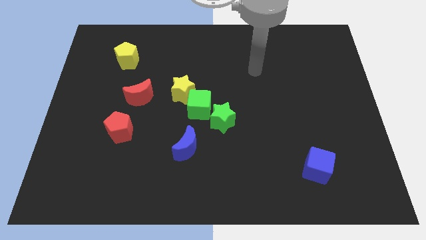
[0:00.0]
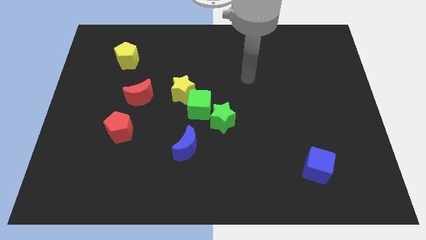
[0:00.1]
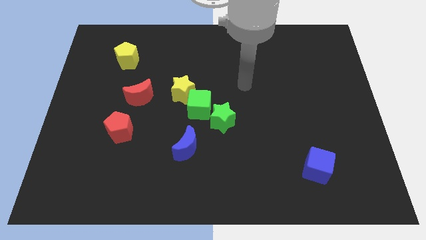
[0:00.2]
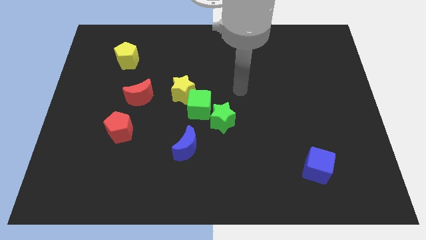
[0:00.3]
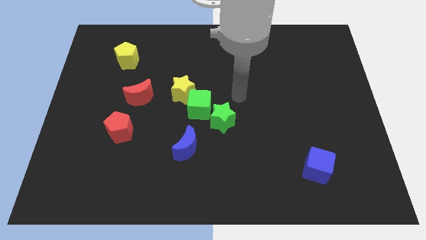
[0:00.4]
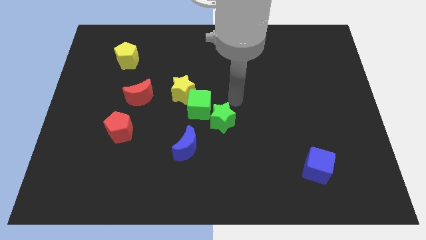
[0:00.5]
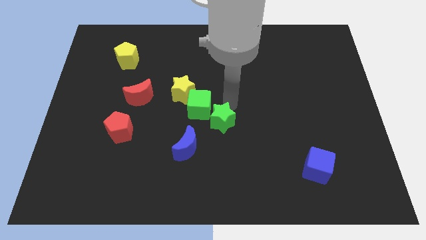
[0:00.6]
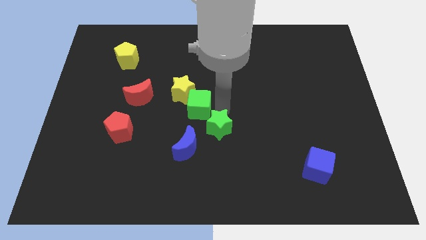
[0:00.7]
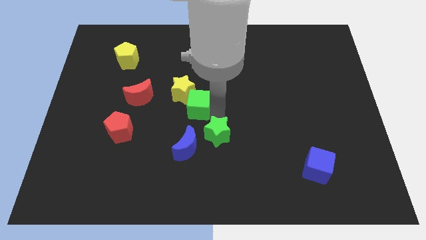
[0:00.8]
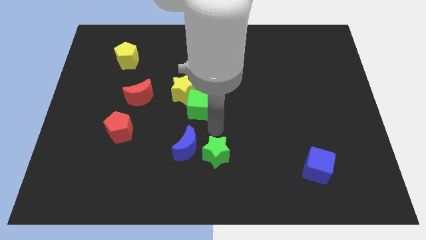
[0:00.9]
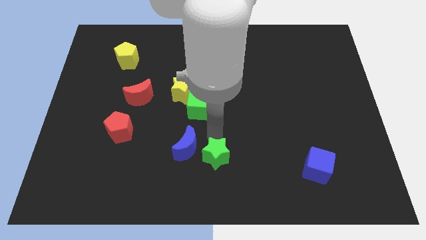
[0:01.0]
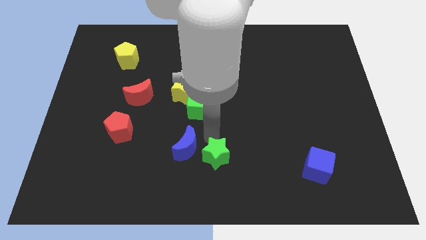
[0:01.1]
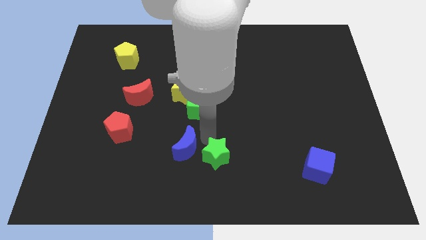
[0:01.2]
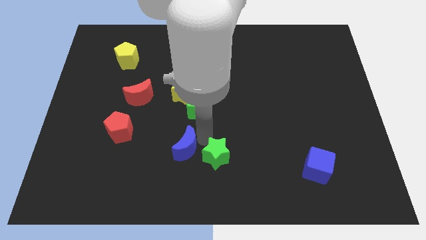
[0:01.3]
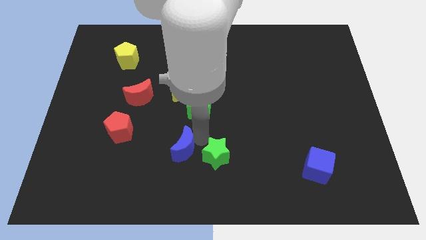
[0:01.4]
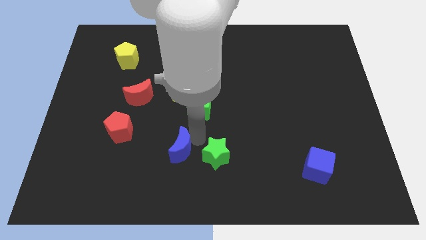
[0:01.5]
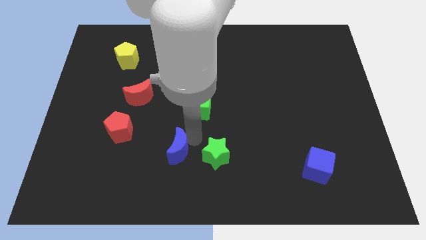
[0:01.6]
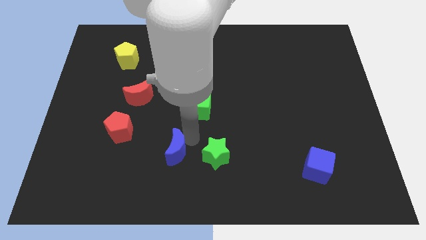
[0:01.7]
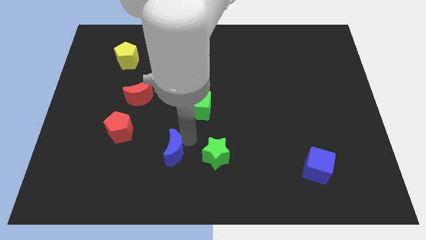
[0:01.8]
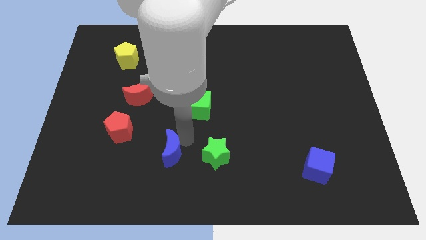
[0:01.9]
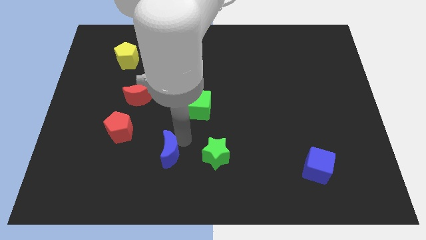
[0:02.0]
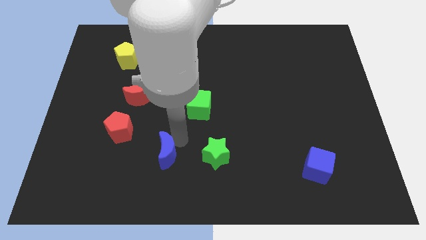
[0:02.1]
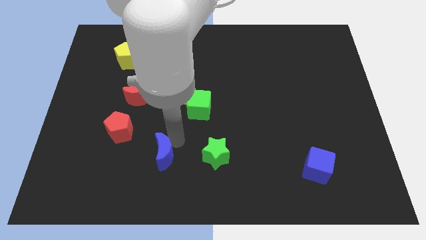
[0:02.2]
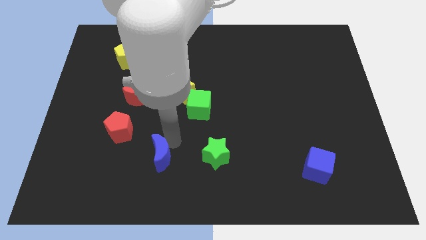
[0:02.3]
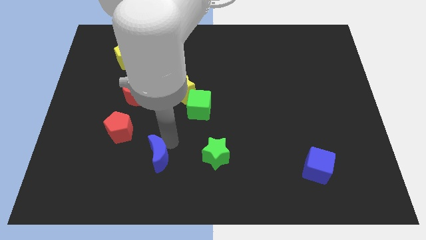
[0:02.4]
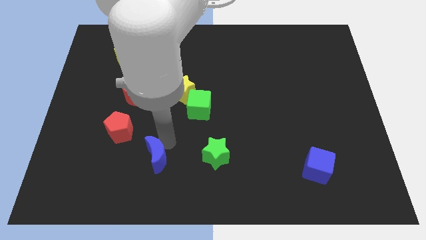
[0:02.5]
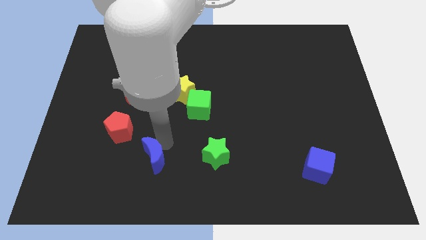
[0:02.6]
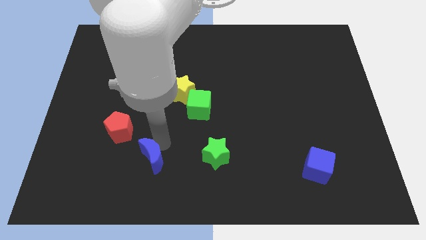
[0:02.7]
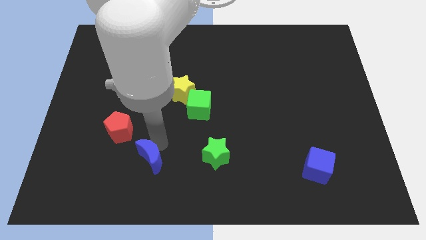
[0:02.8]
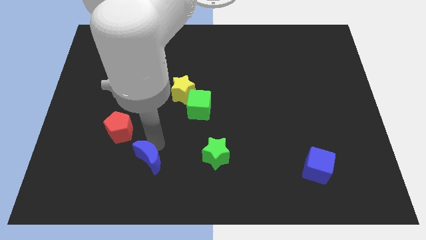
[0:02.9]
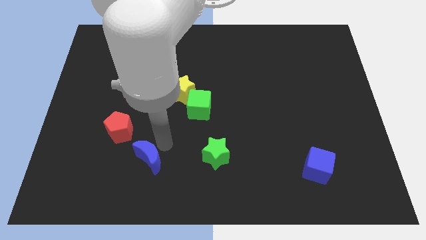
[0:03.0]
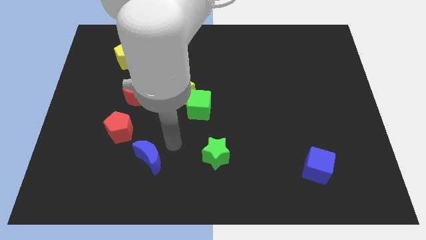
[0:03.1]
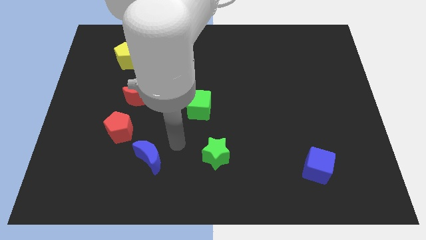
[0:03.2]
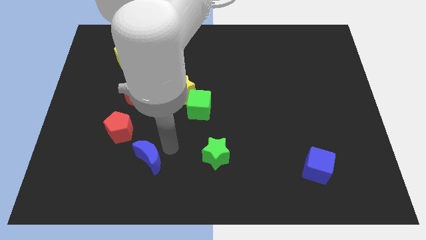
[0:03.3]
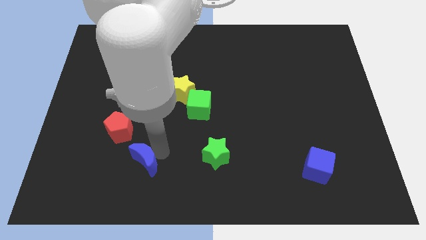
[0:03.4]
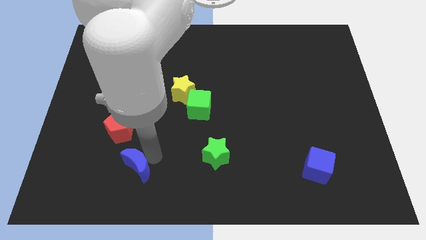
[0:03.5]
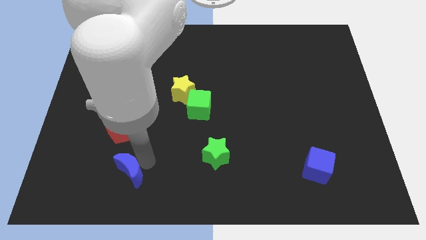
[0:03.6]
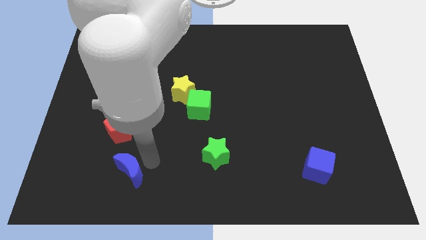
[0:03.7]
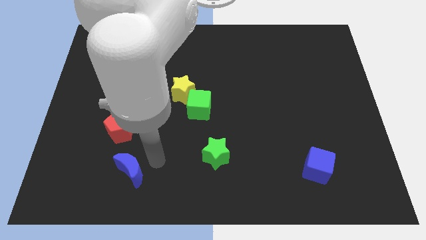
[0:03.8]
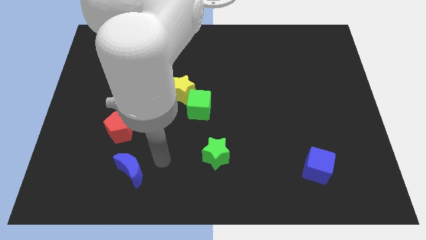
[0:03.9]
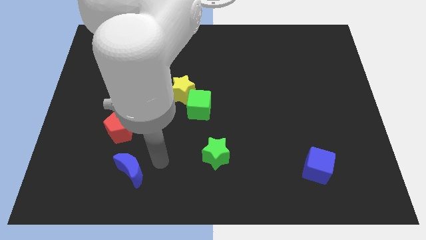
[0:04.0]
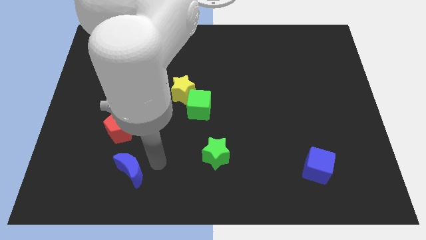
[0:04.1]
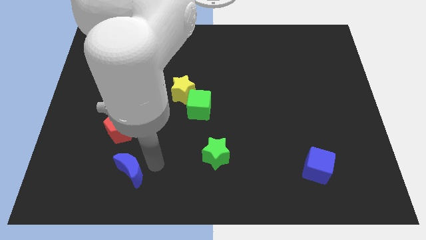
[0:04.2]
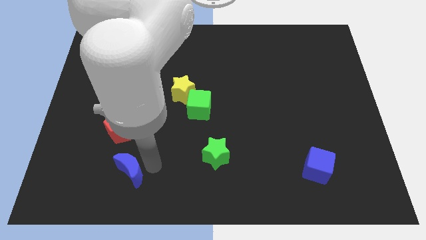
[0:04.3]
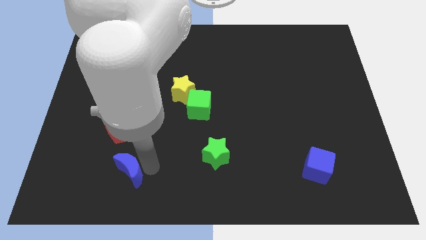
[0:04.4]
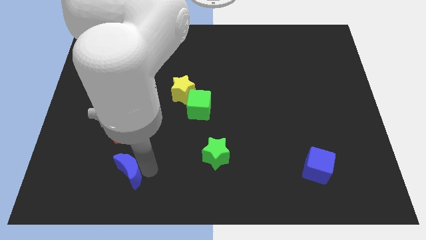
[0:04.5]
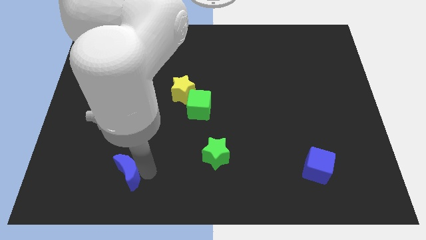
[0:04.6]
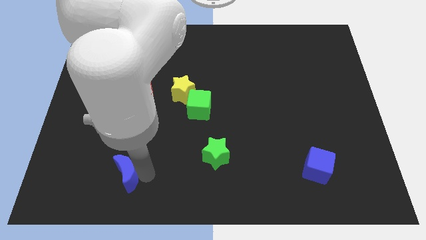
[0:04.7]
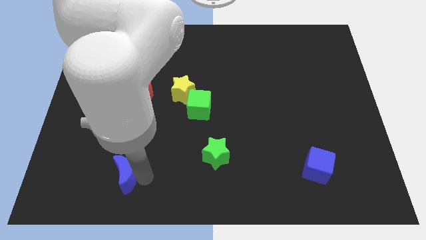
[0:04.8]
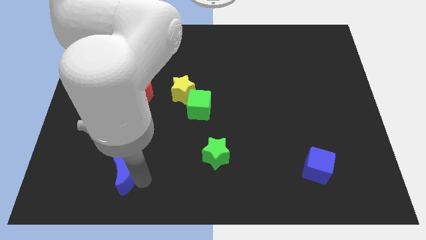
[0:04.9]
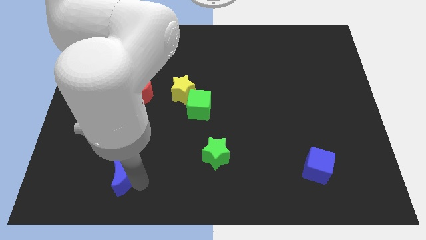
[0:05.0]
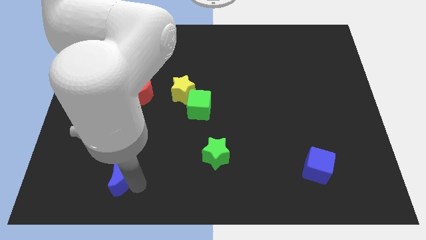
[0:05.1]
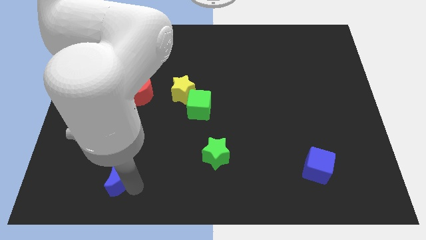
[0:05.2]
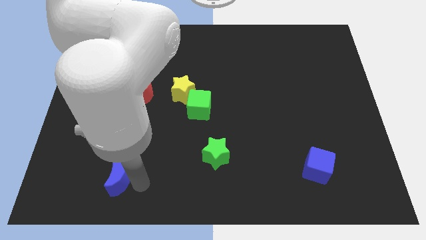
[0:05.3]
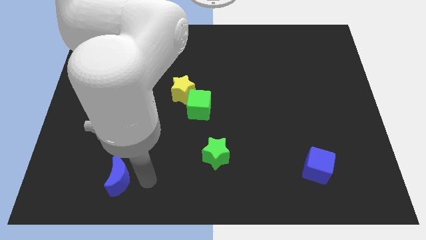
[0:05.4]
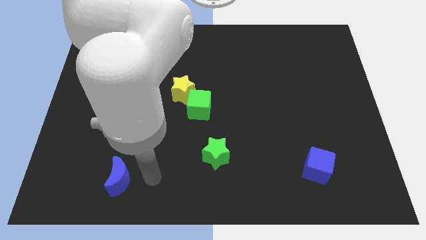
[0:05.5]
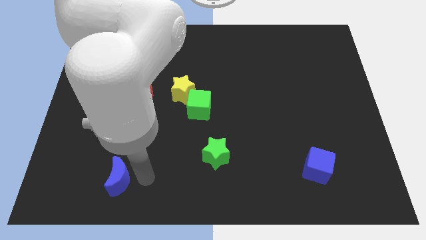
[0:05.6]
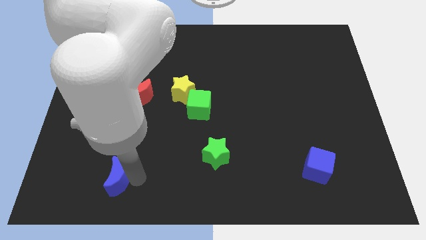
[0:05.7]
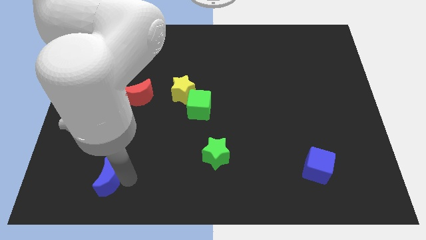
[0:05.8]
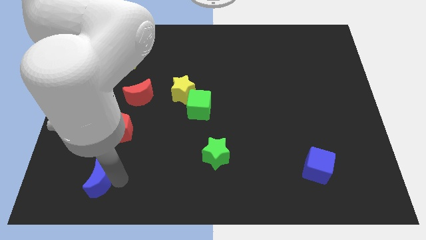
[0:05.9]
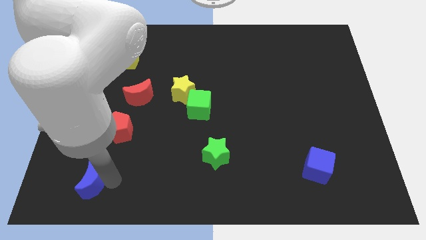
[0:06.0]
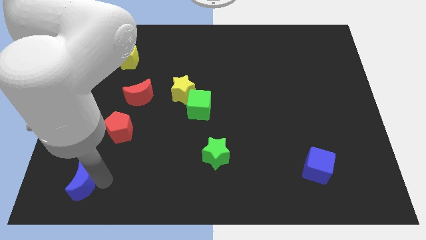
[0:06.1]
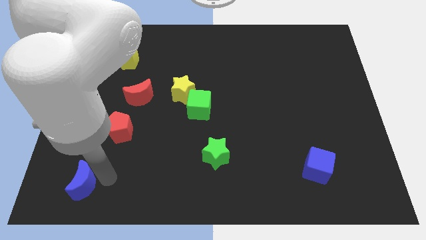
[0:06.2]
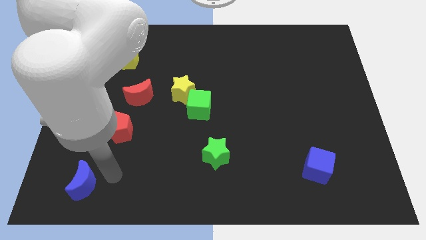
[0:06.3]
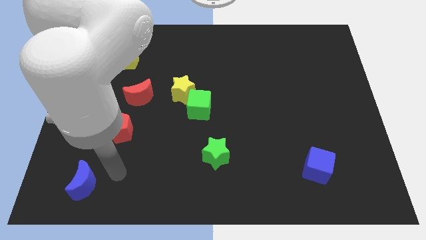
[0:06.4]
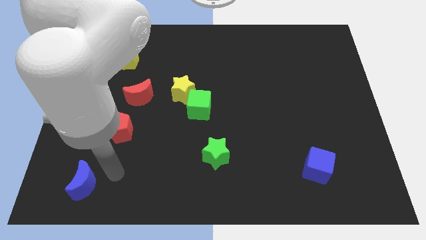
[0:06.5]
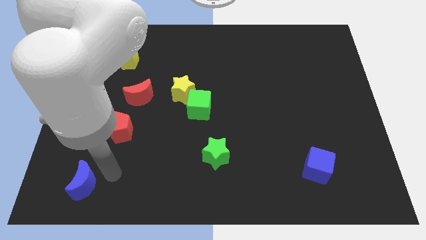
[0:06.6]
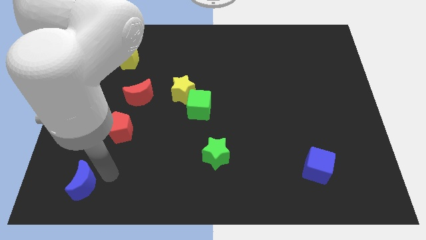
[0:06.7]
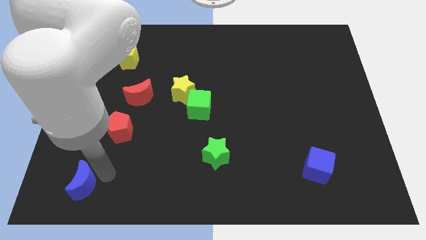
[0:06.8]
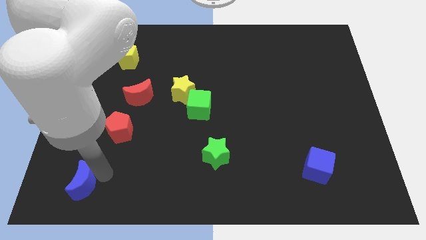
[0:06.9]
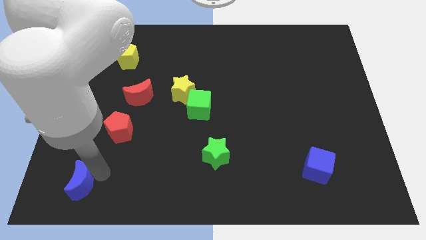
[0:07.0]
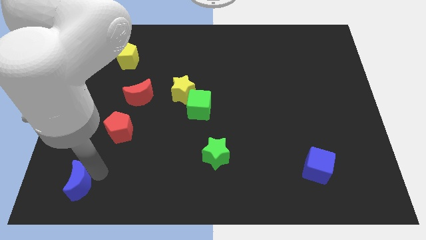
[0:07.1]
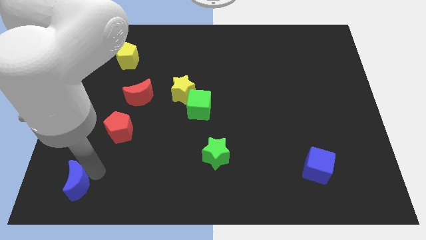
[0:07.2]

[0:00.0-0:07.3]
push the blue moon to the bottom left of the board
